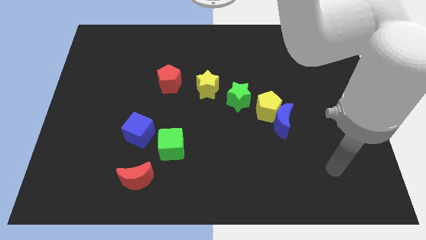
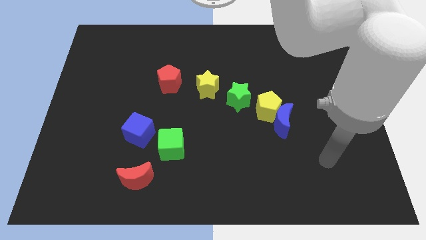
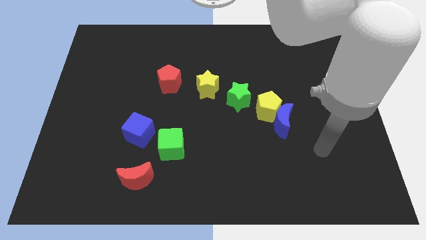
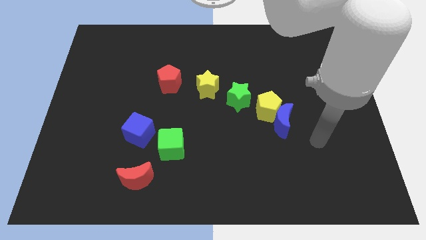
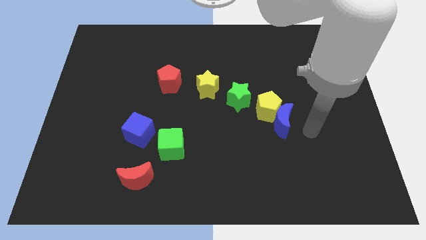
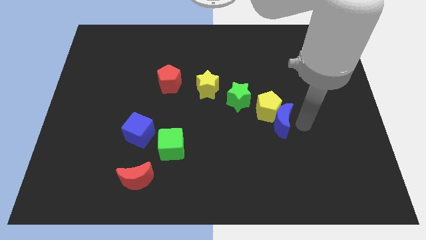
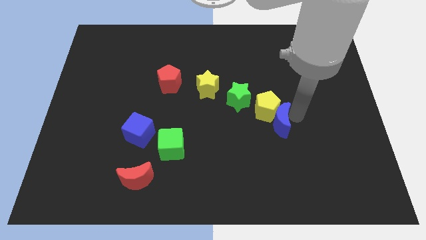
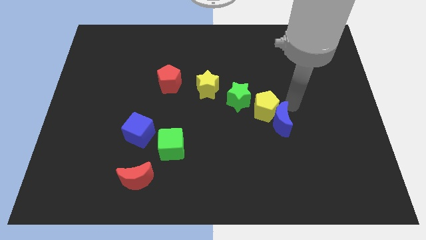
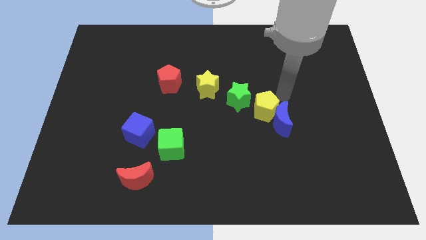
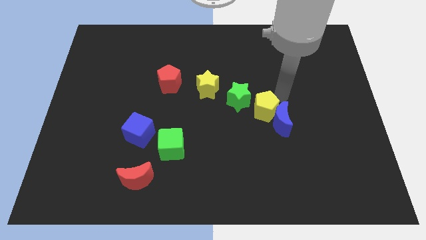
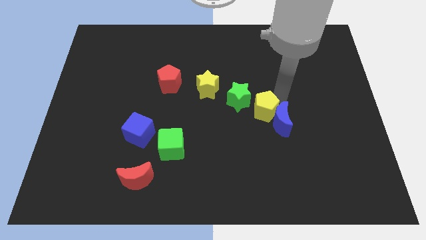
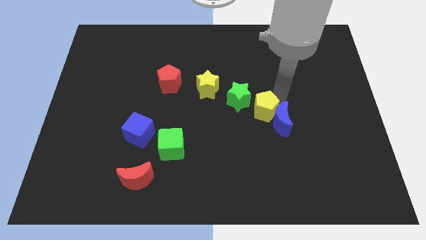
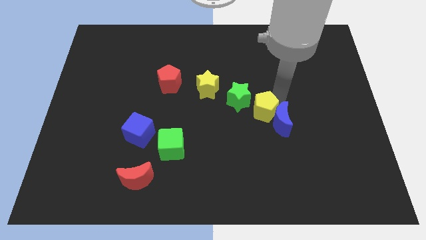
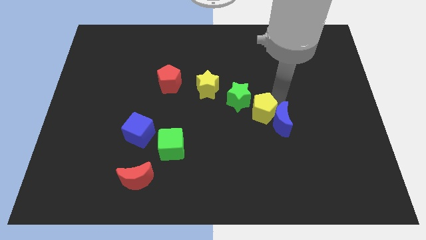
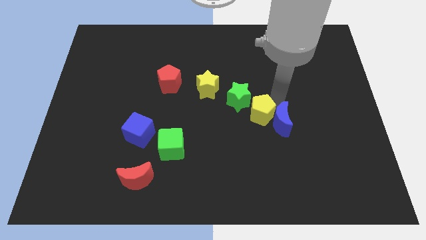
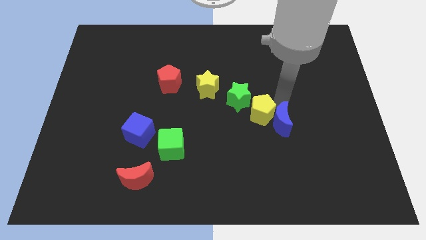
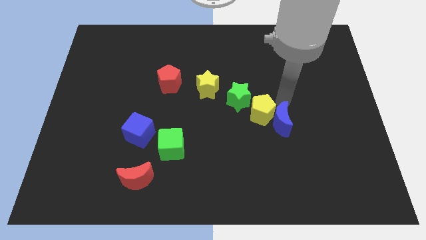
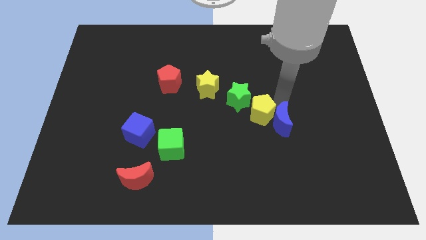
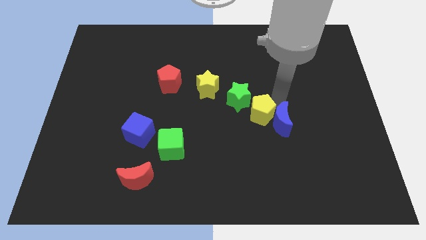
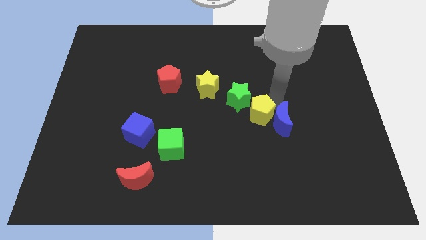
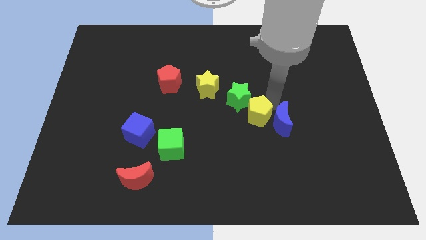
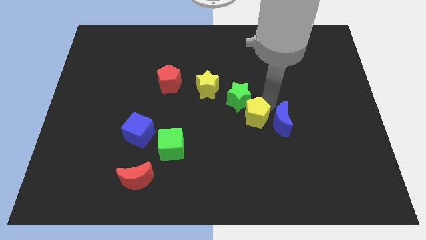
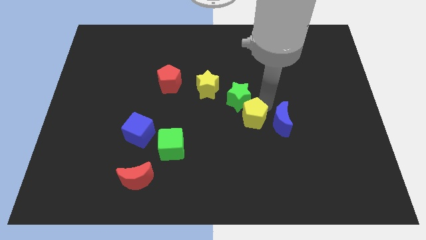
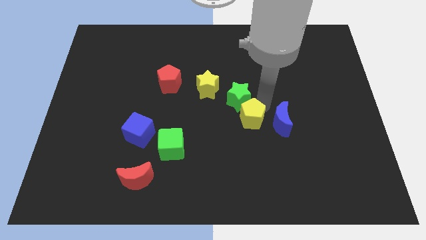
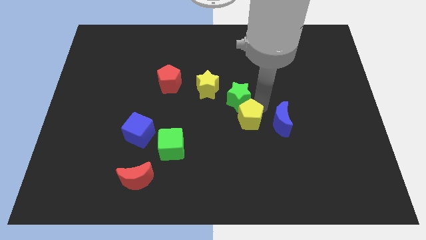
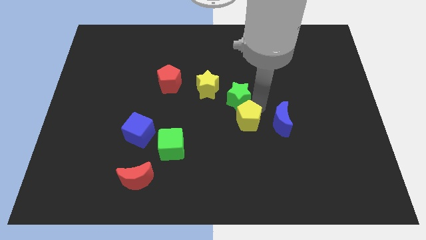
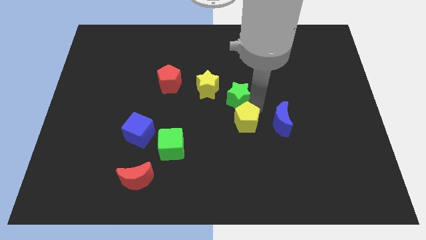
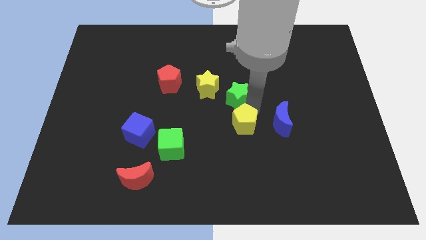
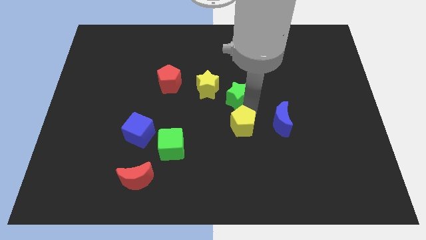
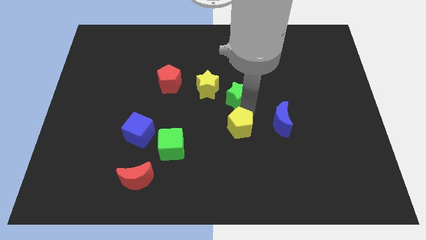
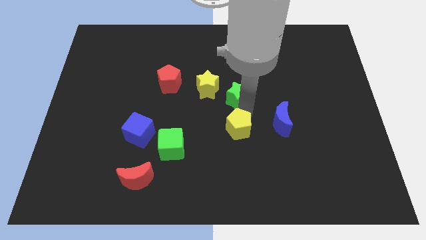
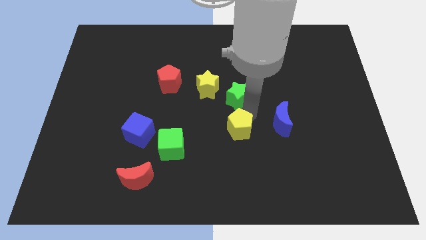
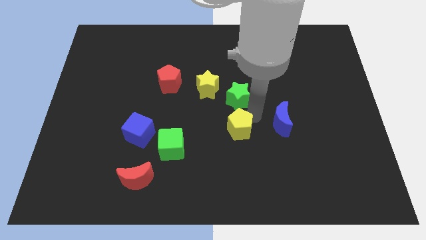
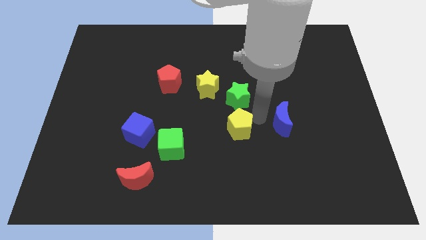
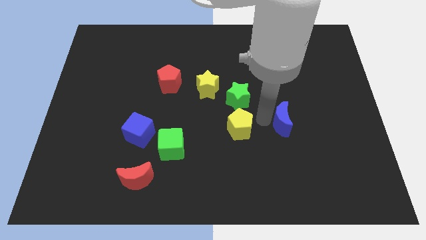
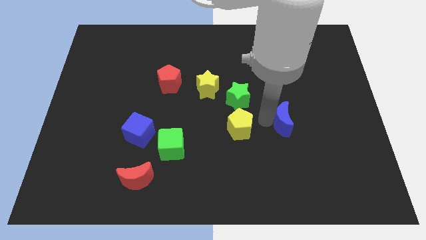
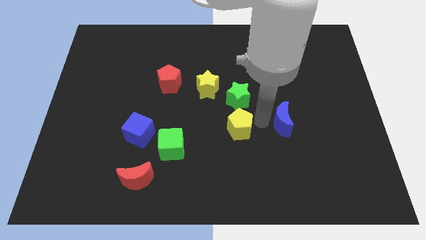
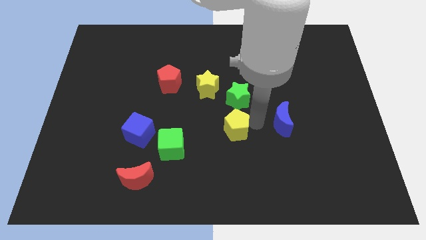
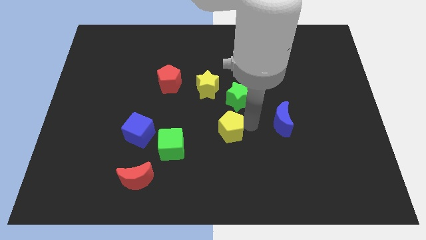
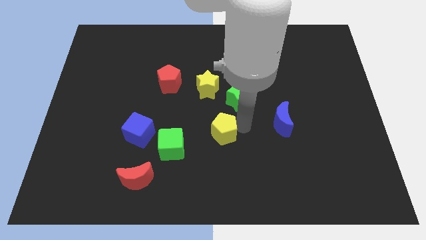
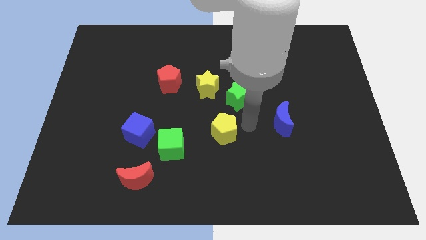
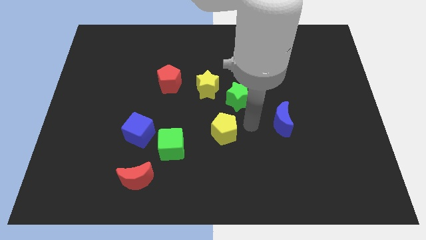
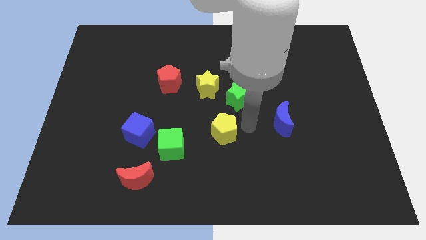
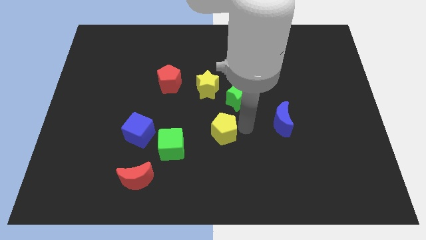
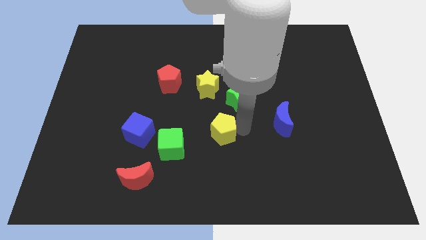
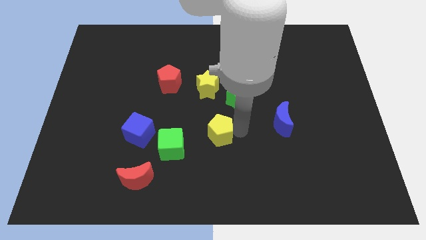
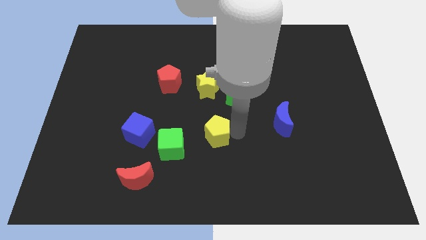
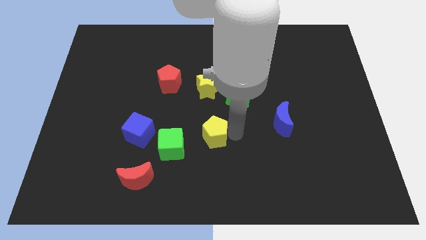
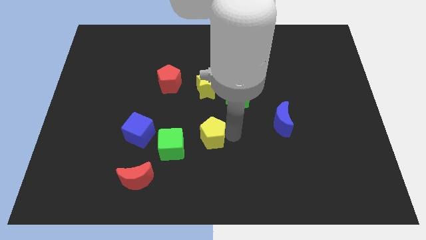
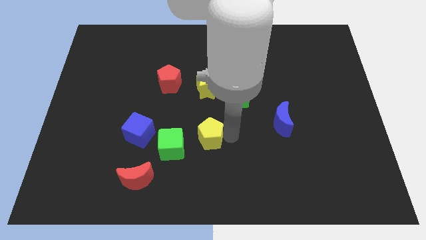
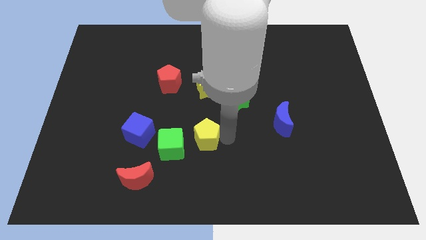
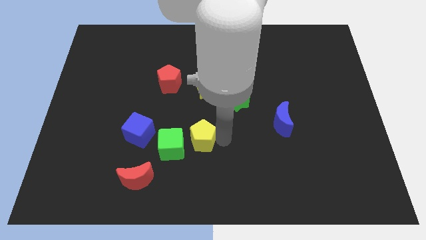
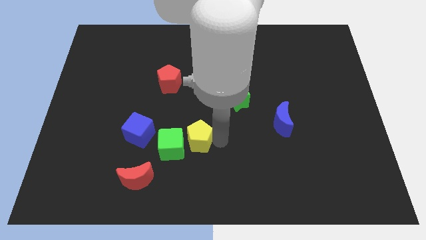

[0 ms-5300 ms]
put the yellow pentagon to the green cube

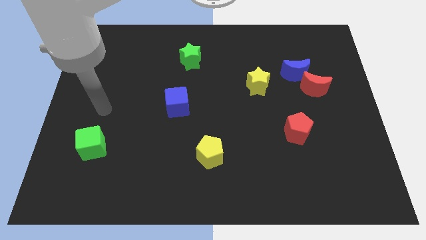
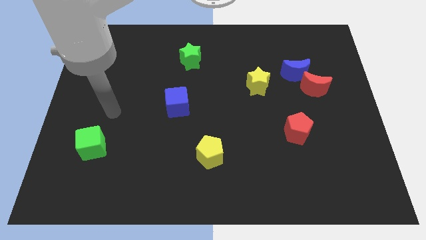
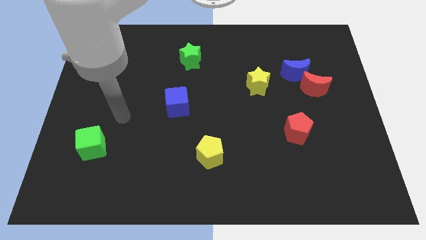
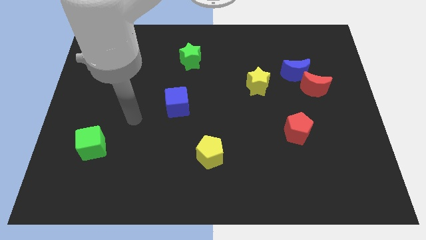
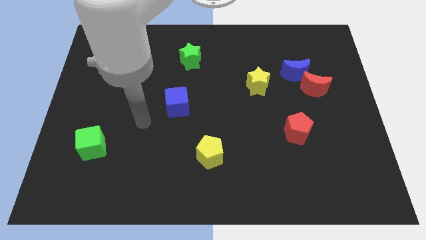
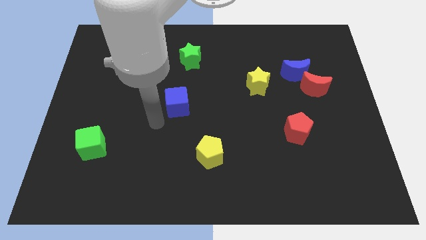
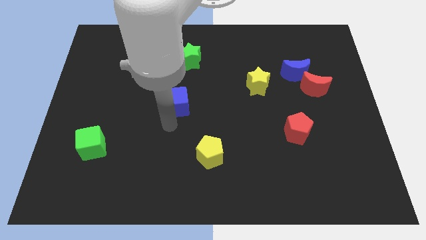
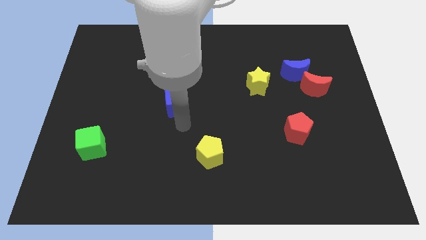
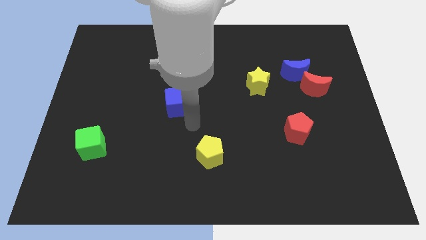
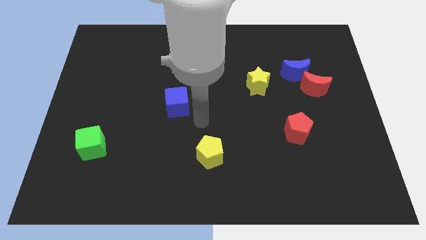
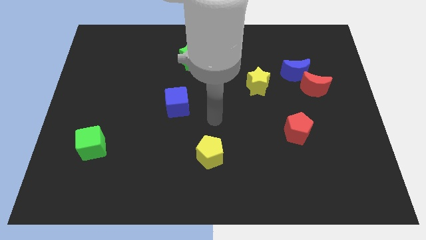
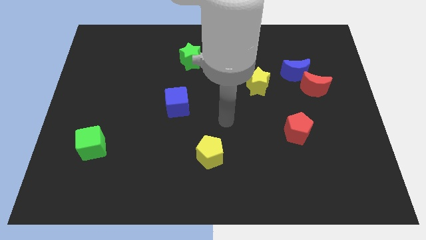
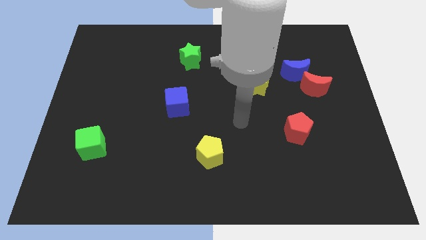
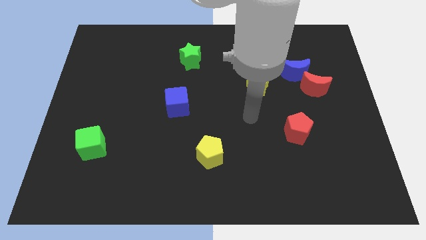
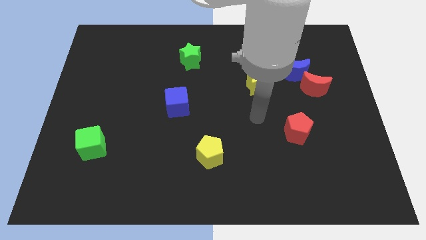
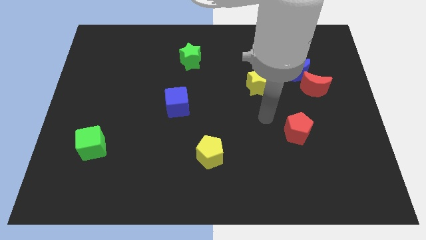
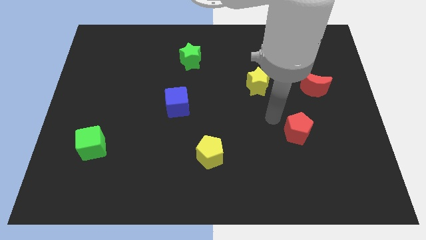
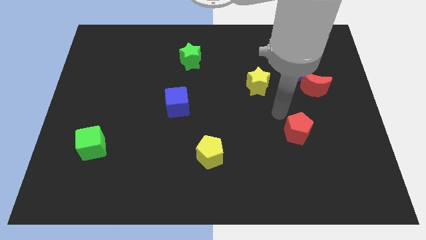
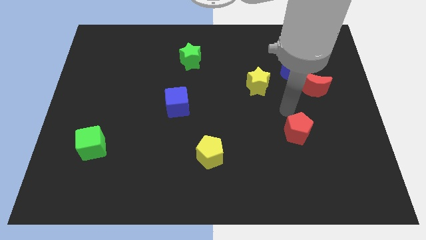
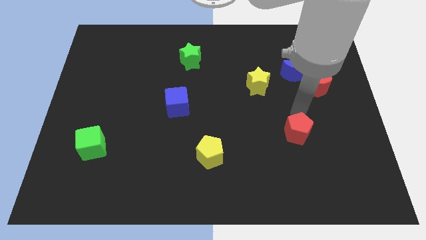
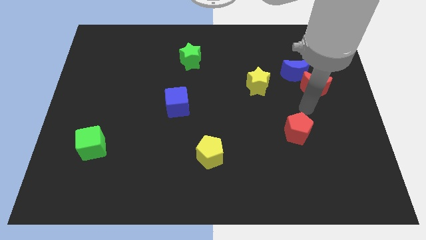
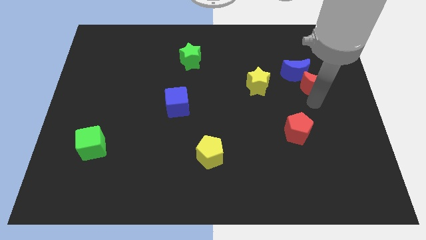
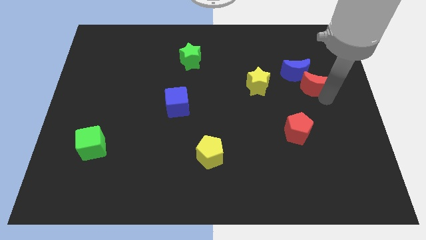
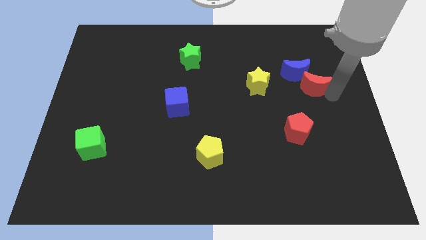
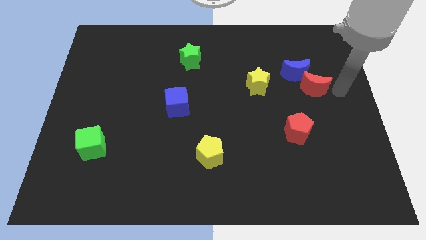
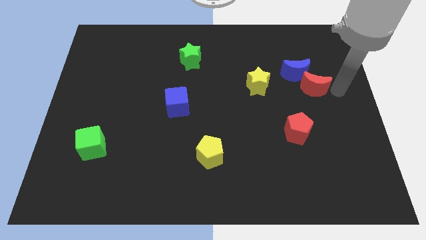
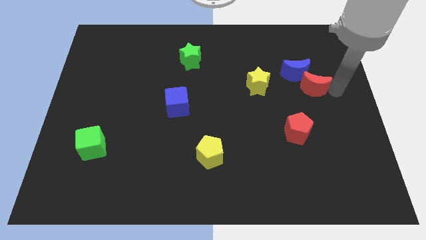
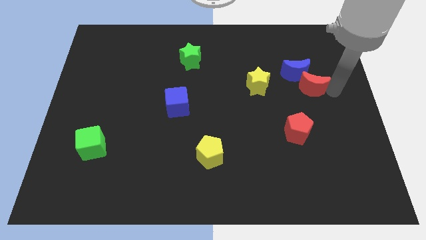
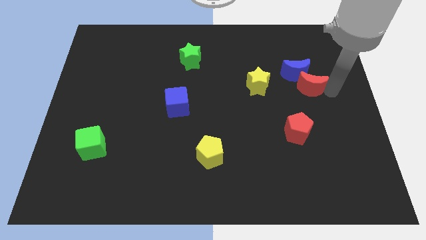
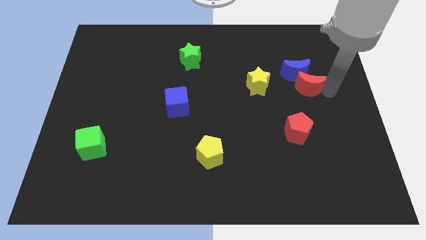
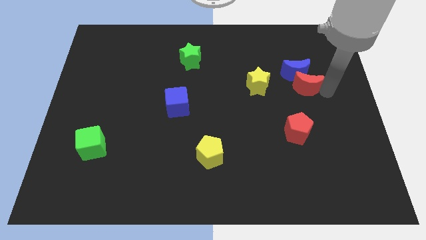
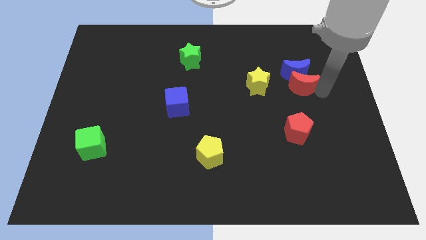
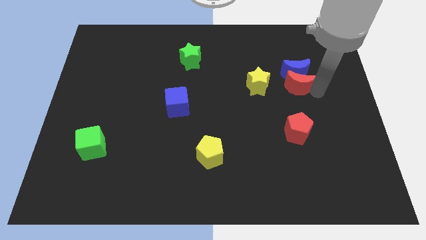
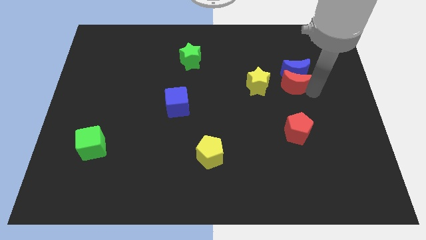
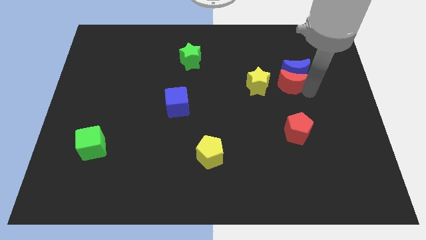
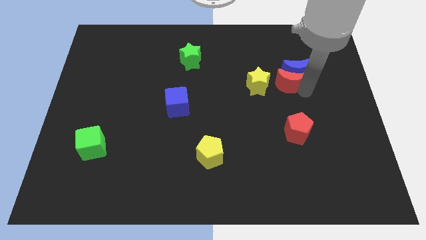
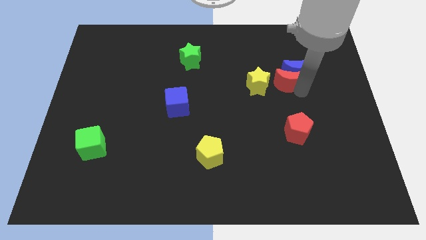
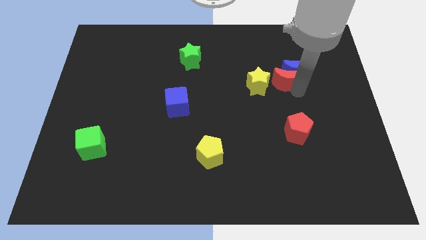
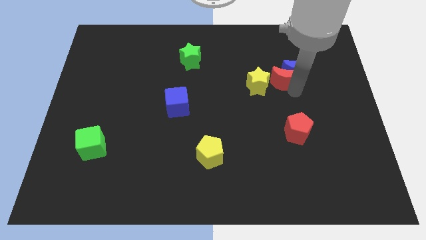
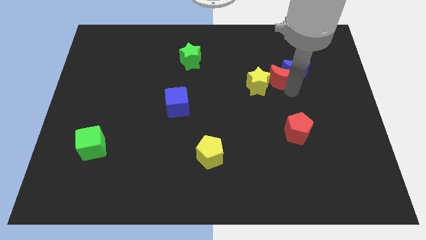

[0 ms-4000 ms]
slide the red moon next to the yellow star
